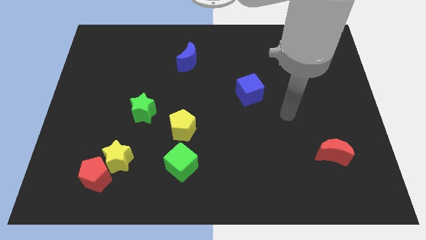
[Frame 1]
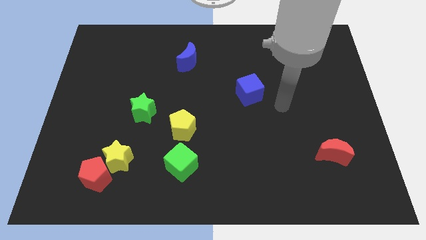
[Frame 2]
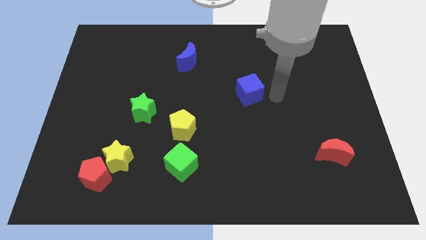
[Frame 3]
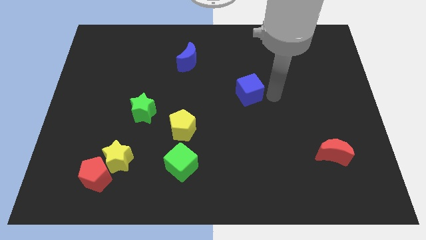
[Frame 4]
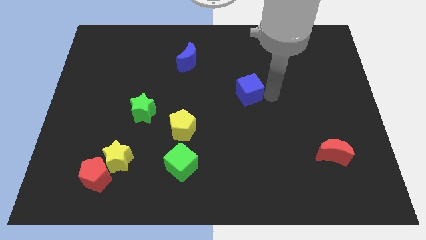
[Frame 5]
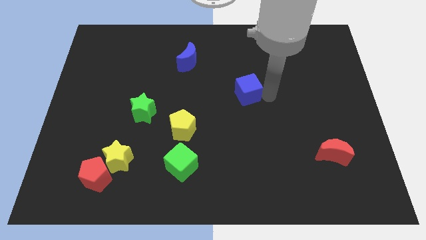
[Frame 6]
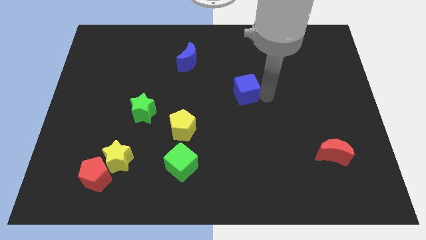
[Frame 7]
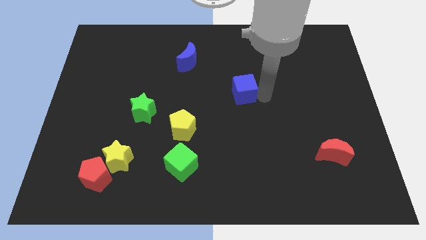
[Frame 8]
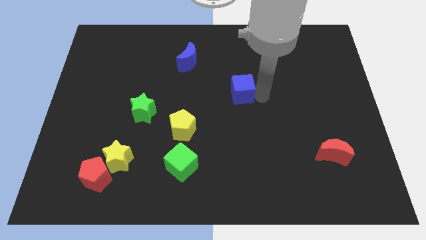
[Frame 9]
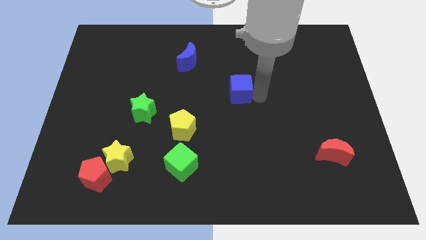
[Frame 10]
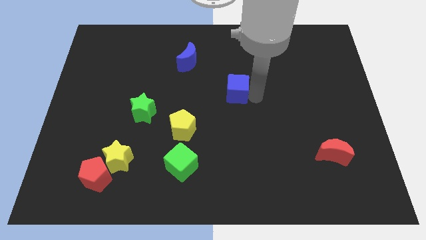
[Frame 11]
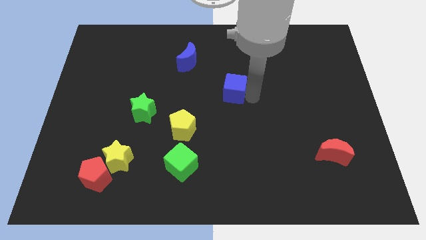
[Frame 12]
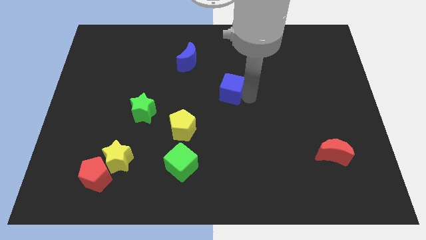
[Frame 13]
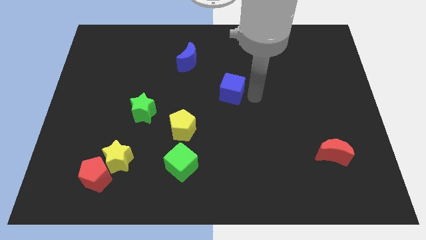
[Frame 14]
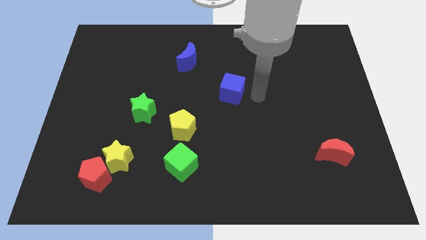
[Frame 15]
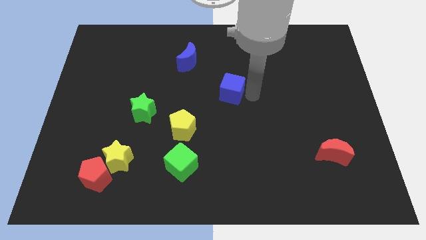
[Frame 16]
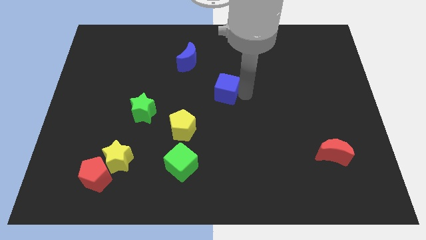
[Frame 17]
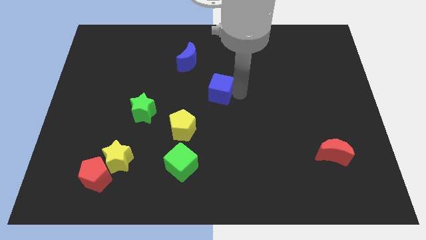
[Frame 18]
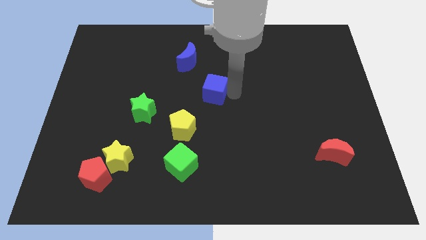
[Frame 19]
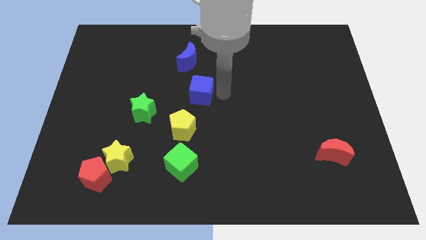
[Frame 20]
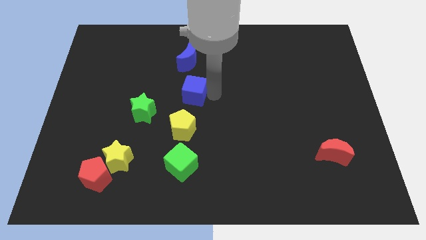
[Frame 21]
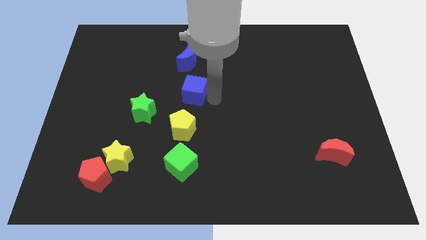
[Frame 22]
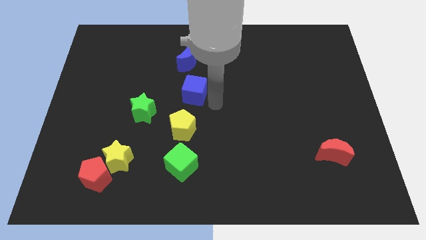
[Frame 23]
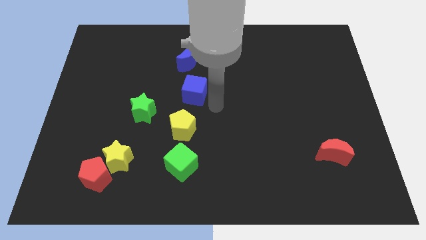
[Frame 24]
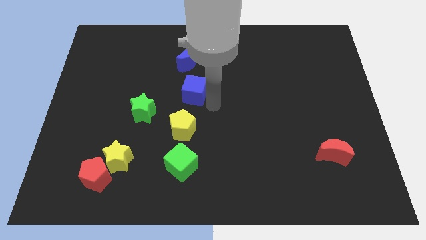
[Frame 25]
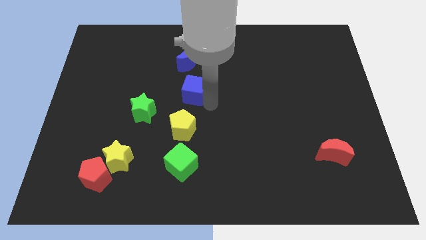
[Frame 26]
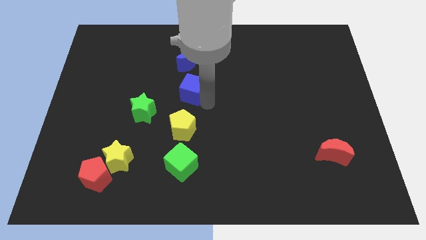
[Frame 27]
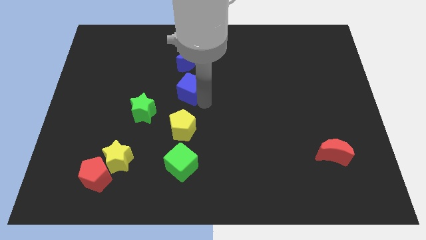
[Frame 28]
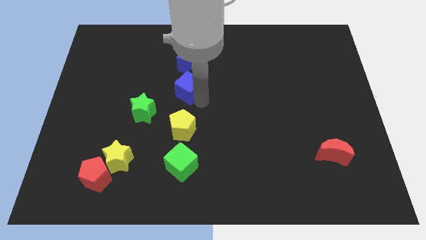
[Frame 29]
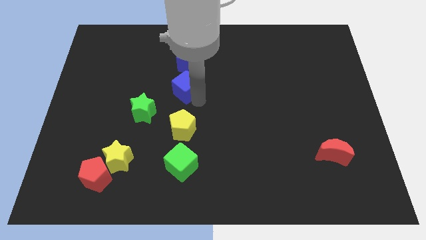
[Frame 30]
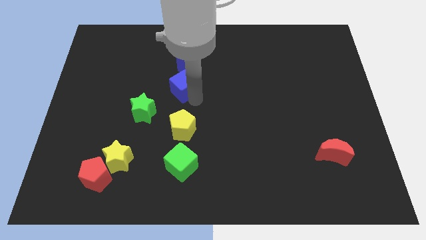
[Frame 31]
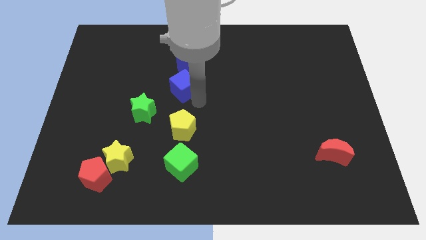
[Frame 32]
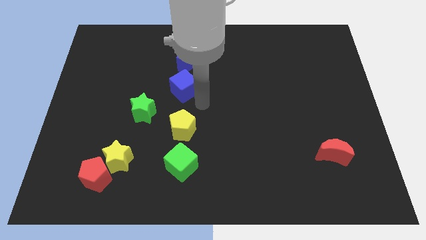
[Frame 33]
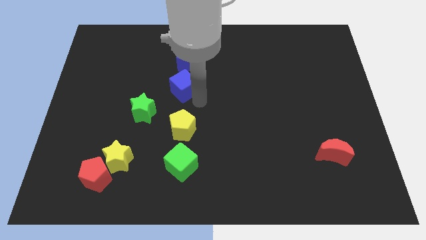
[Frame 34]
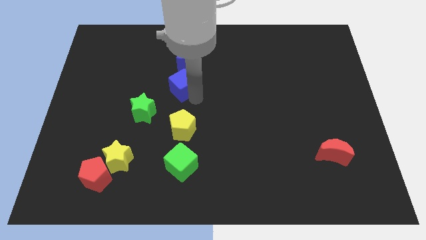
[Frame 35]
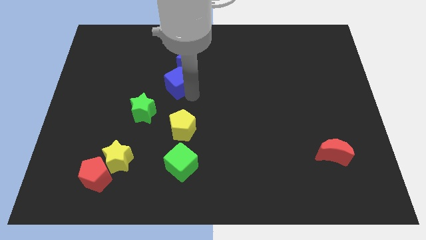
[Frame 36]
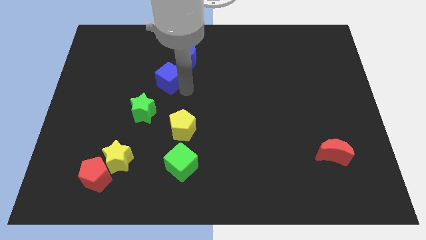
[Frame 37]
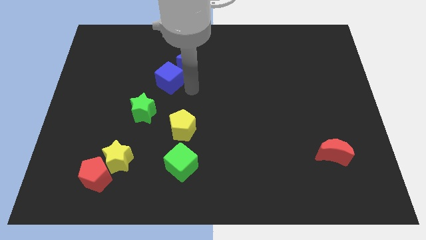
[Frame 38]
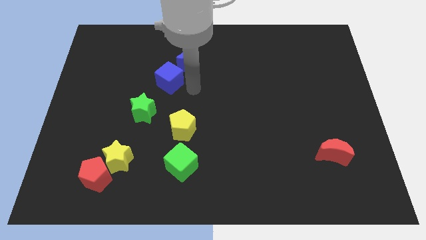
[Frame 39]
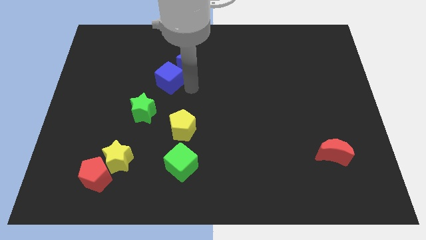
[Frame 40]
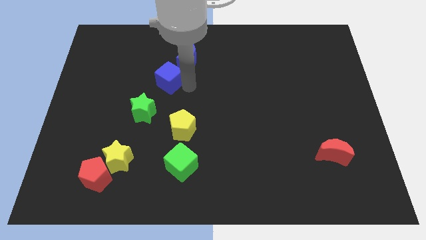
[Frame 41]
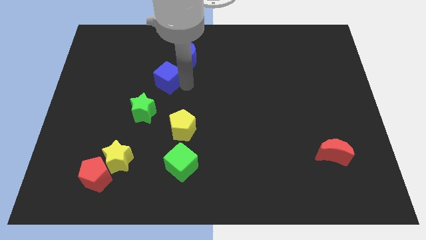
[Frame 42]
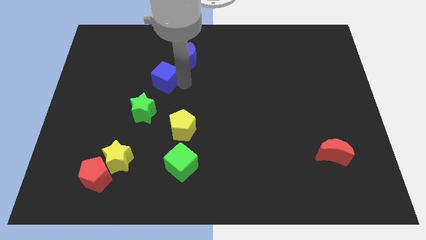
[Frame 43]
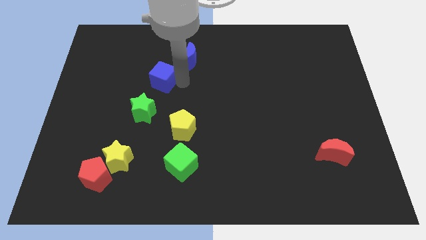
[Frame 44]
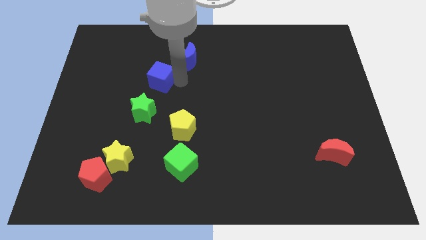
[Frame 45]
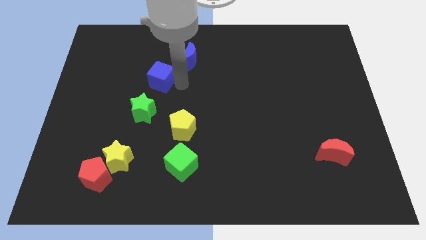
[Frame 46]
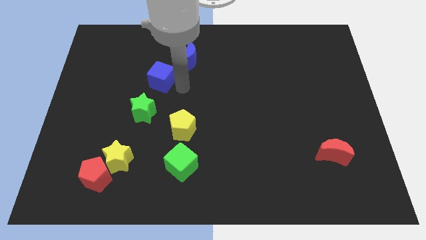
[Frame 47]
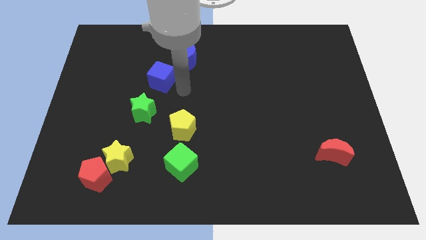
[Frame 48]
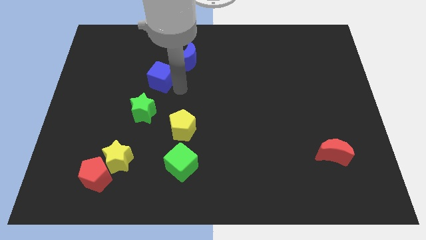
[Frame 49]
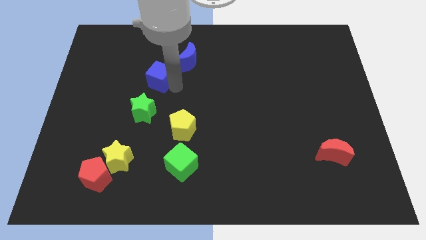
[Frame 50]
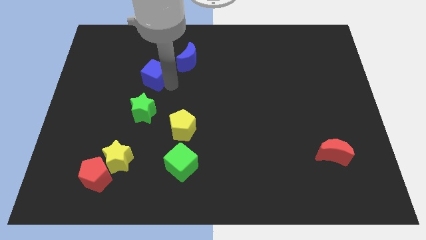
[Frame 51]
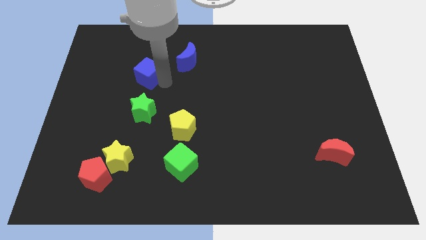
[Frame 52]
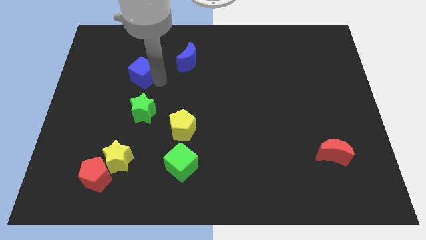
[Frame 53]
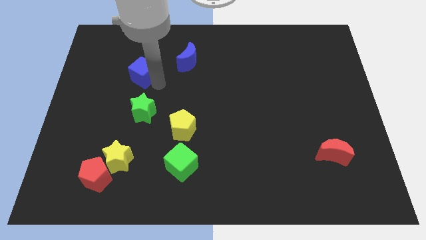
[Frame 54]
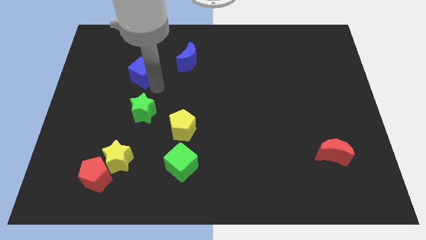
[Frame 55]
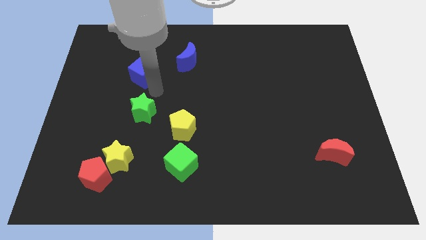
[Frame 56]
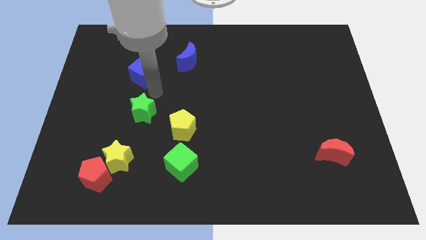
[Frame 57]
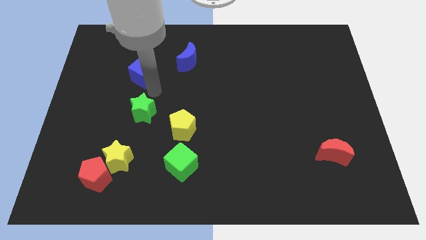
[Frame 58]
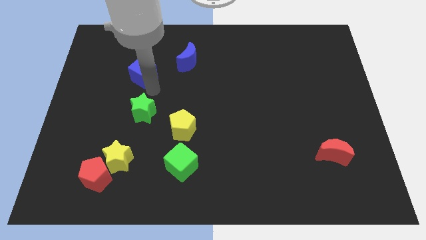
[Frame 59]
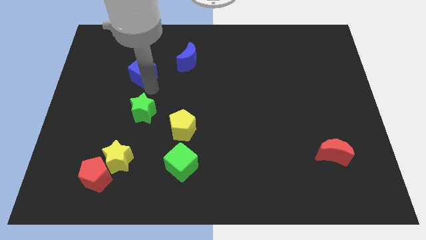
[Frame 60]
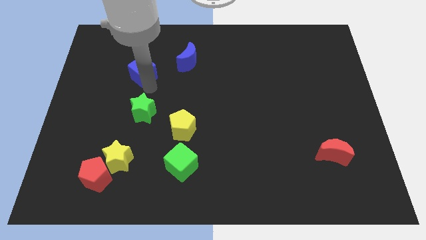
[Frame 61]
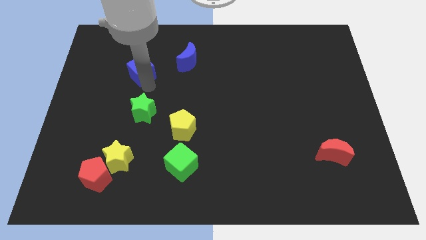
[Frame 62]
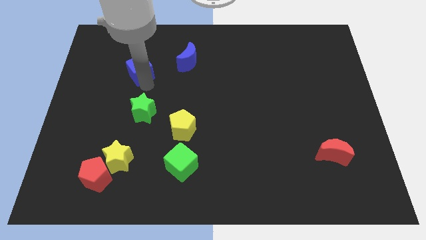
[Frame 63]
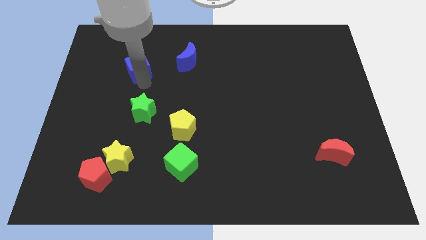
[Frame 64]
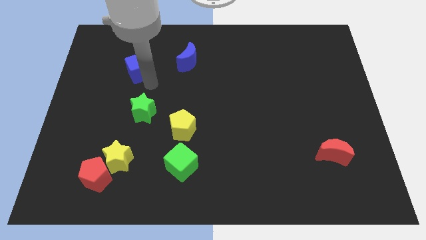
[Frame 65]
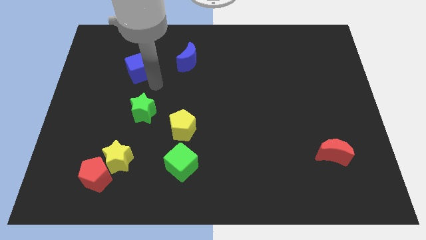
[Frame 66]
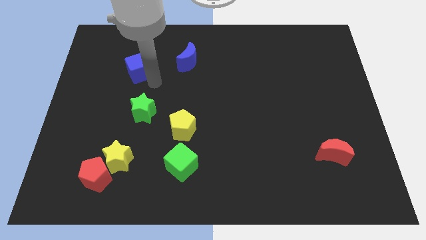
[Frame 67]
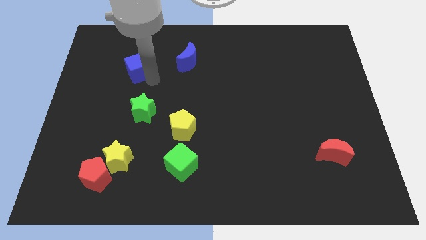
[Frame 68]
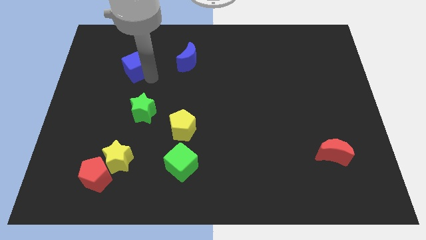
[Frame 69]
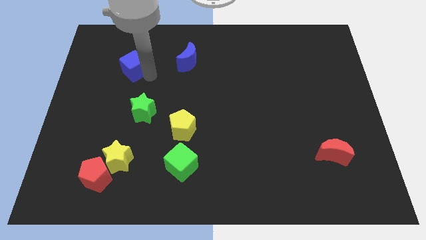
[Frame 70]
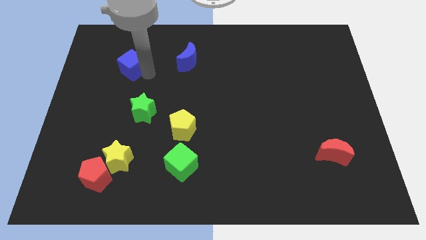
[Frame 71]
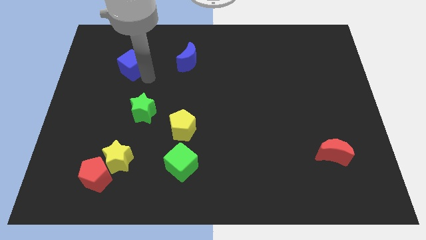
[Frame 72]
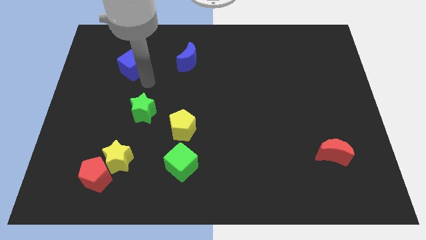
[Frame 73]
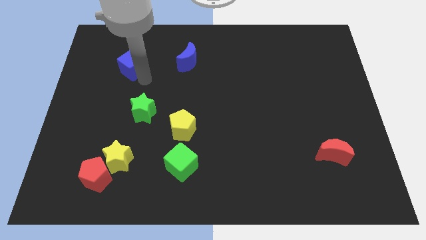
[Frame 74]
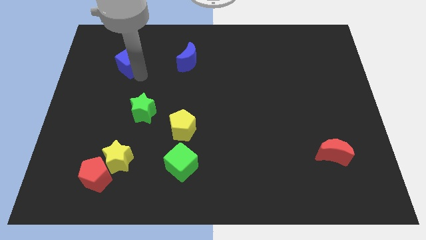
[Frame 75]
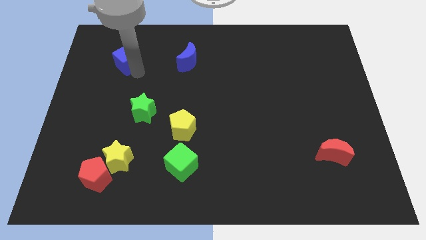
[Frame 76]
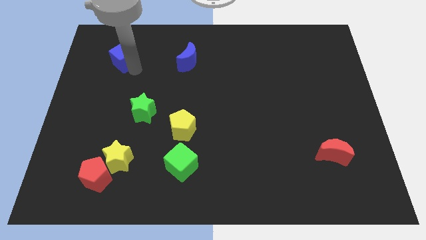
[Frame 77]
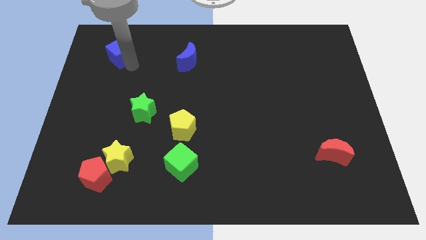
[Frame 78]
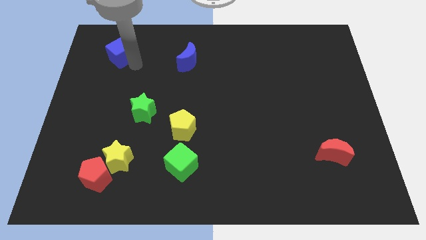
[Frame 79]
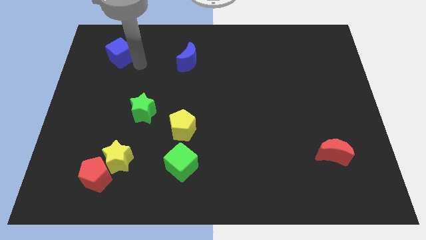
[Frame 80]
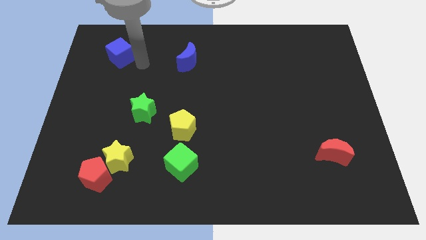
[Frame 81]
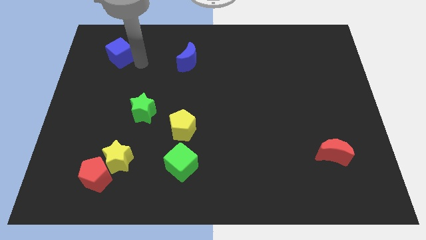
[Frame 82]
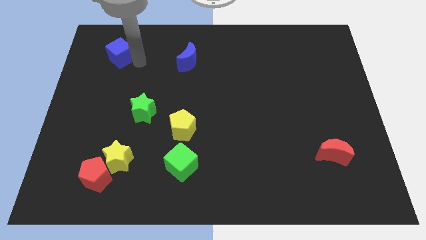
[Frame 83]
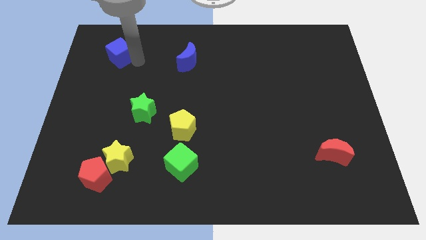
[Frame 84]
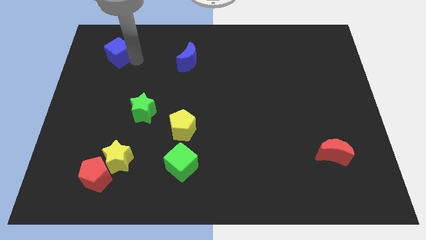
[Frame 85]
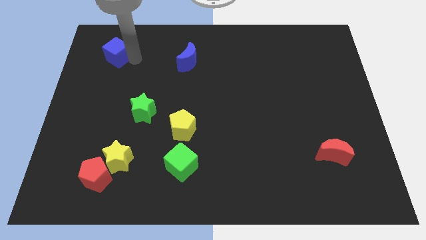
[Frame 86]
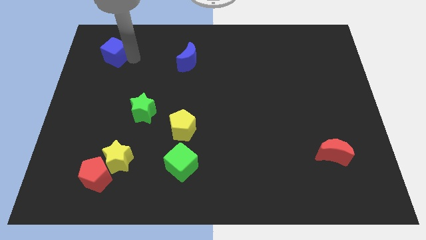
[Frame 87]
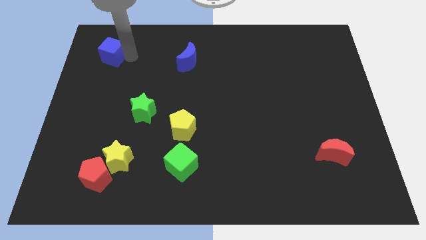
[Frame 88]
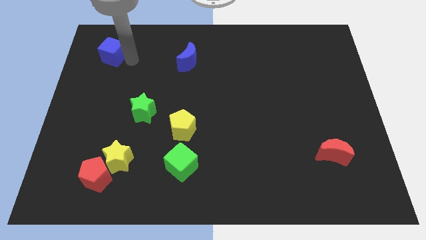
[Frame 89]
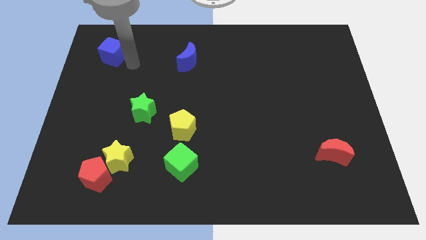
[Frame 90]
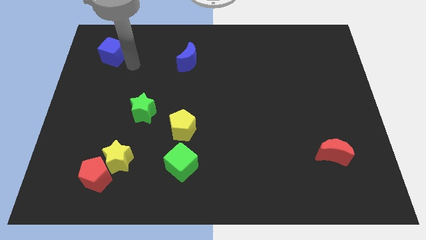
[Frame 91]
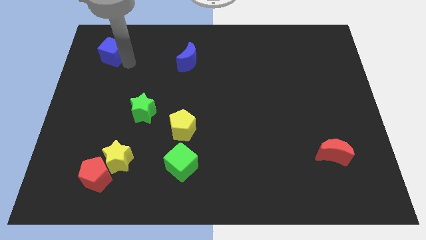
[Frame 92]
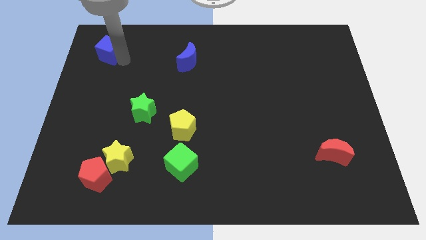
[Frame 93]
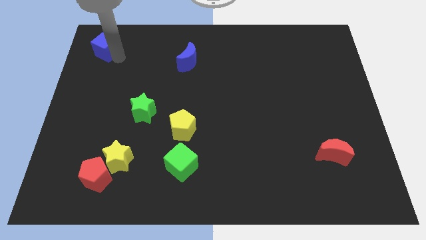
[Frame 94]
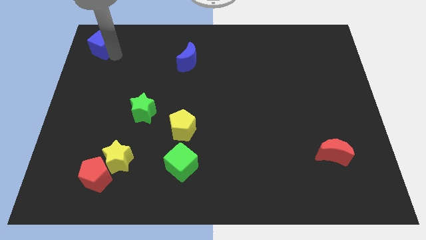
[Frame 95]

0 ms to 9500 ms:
move the blue cube to the top left of the board
